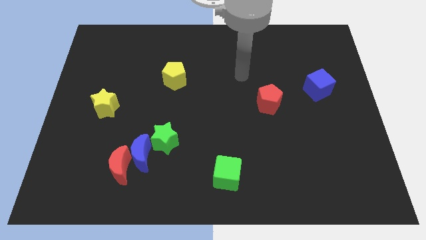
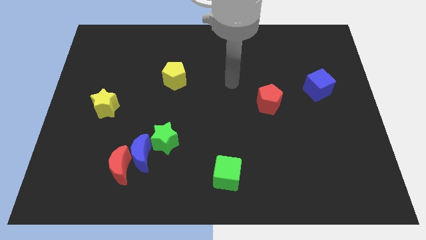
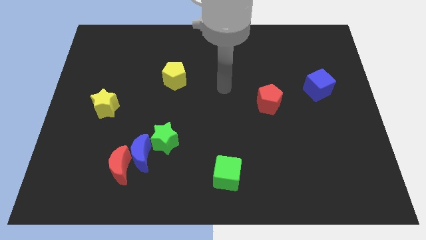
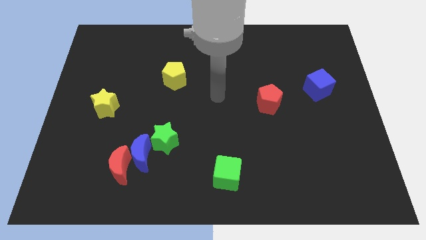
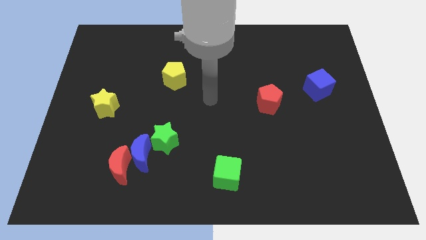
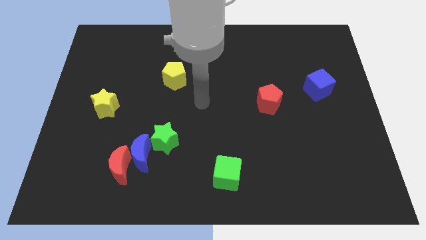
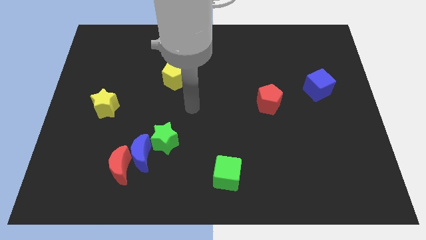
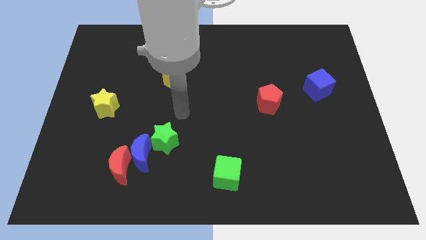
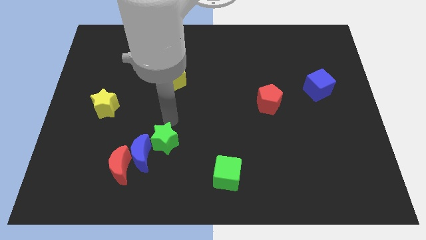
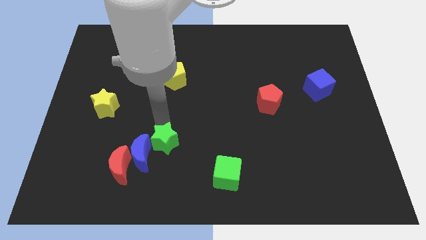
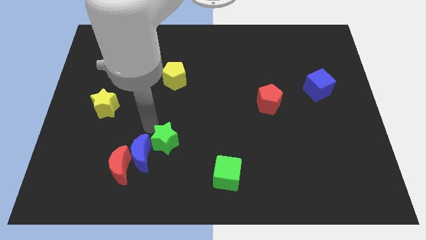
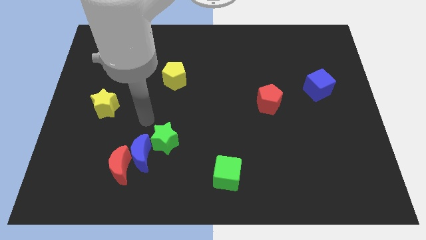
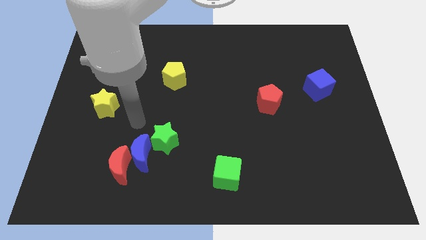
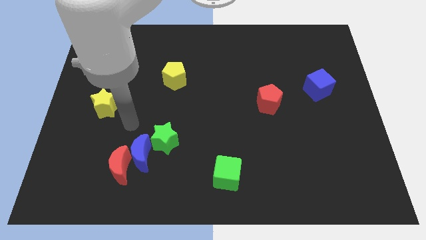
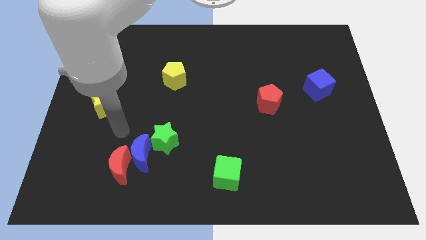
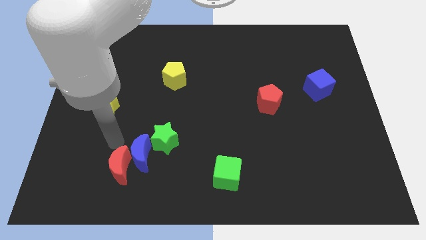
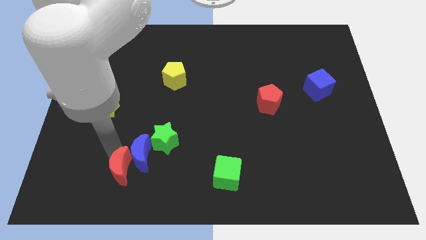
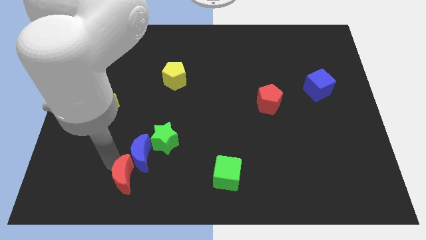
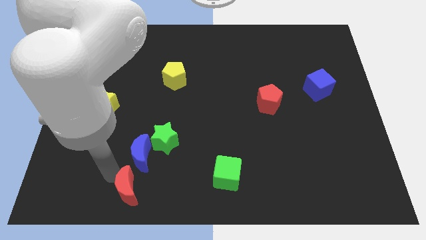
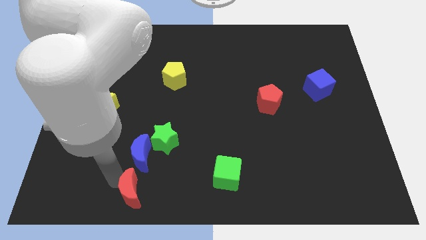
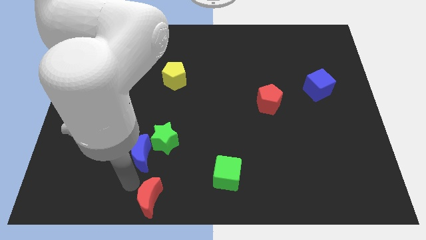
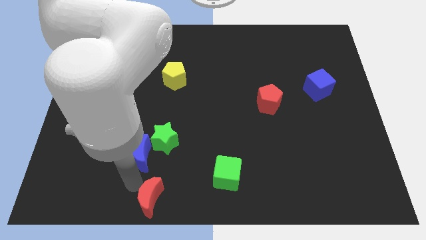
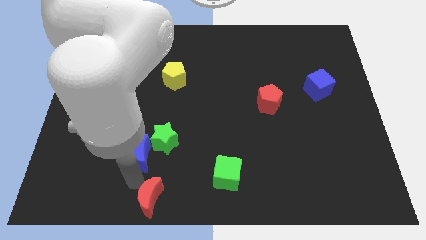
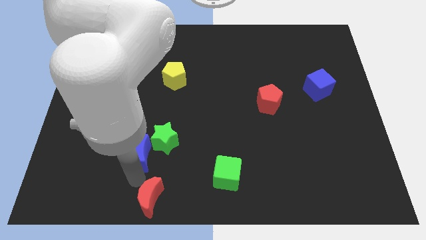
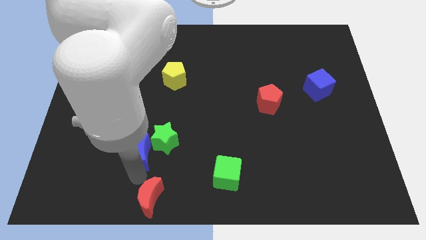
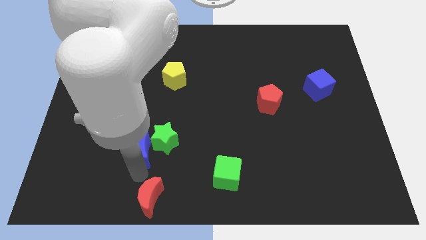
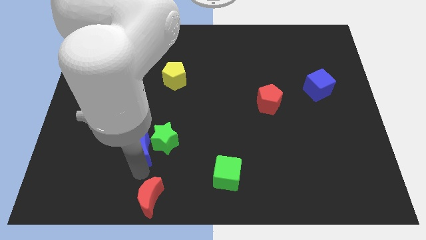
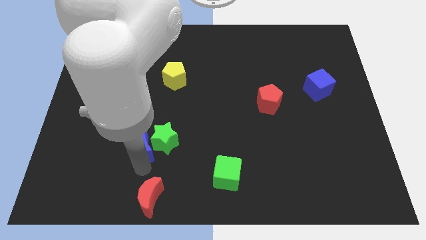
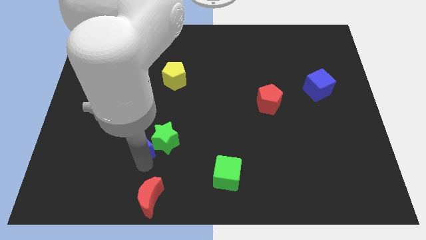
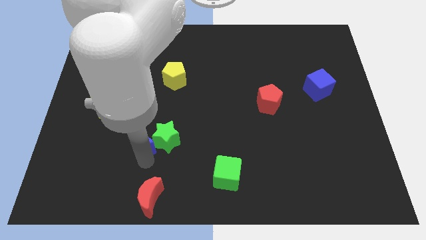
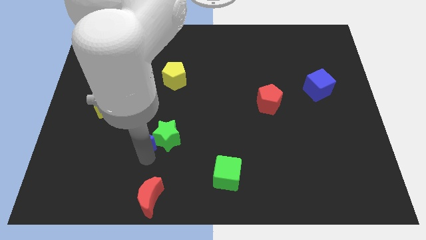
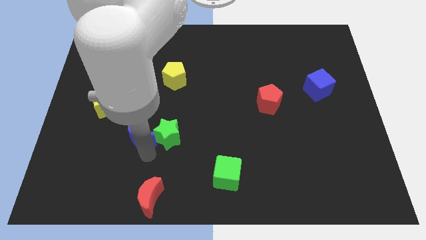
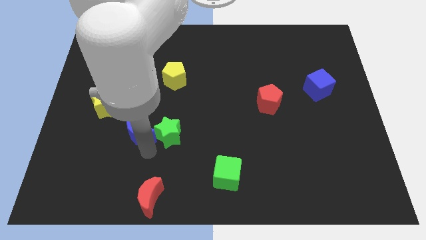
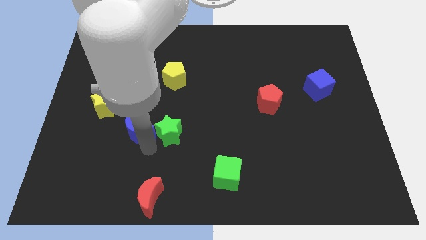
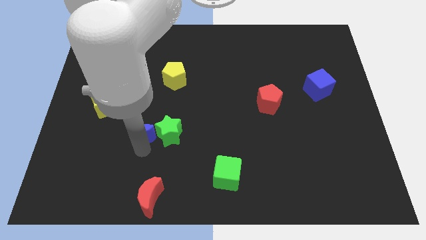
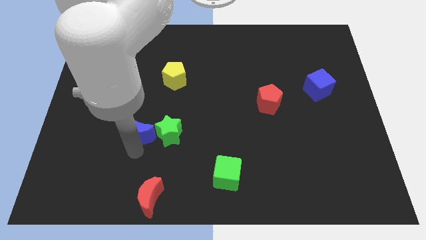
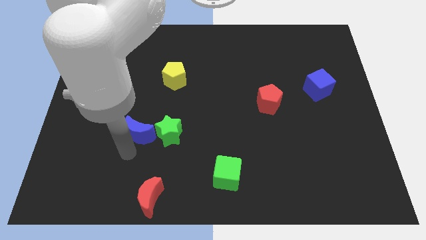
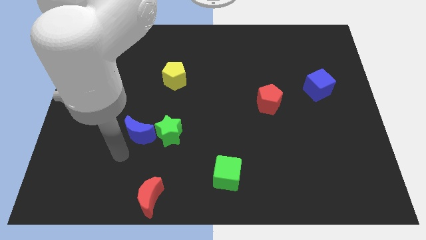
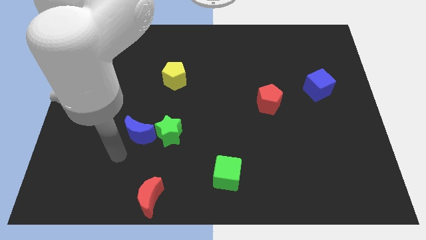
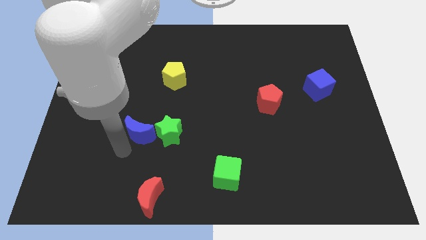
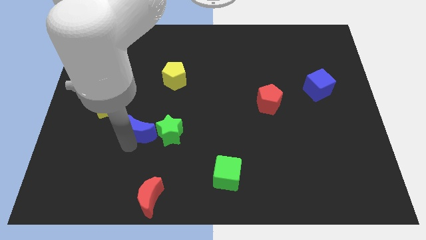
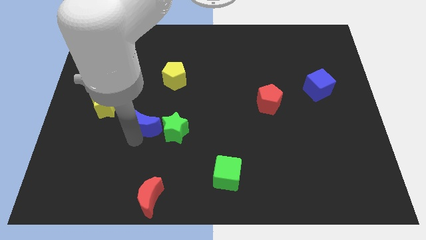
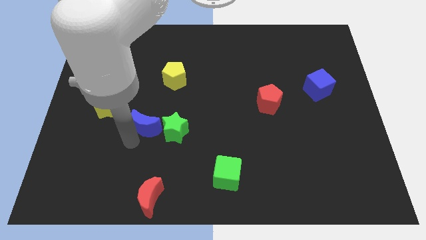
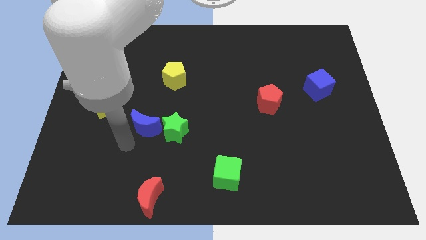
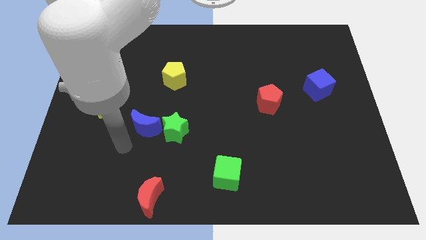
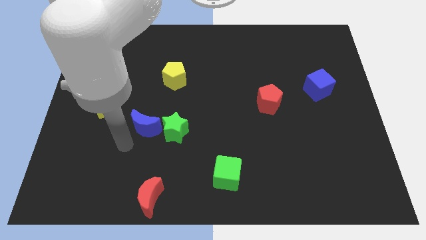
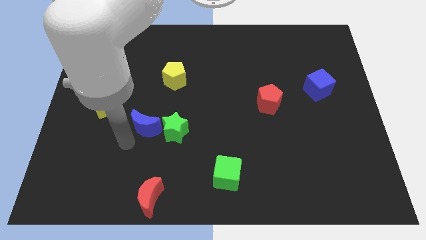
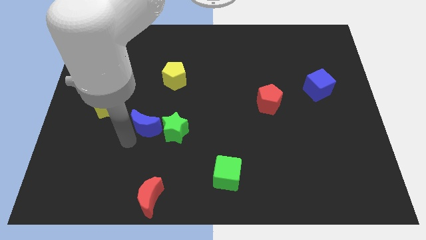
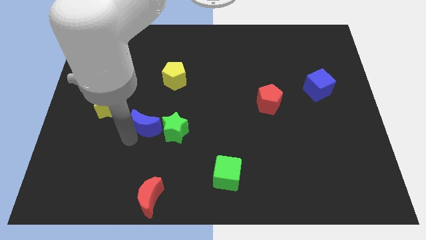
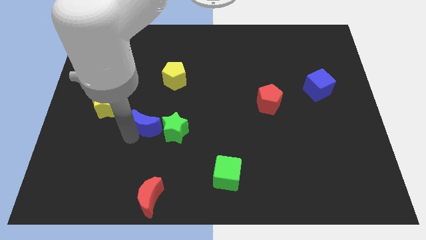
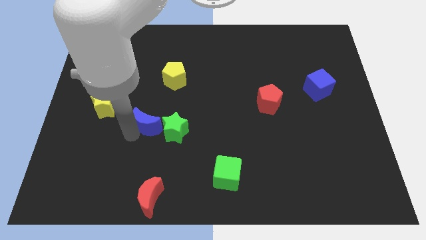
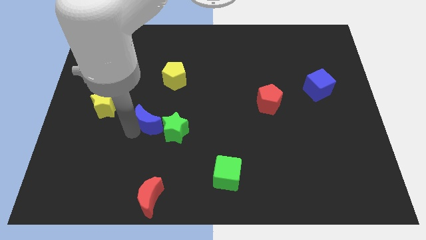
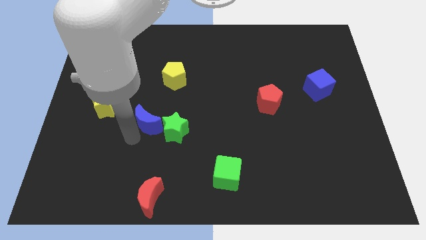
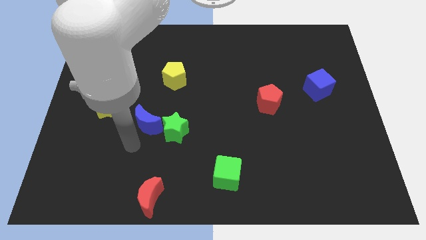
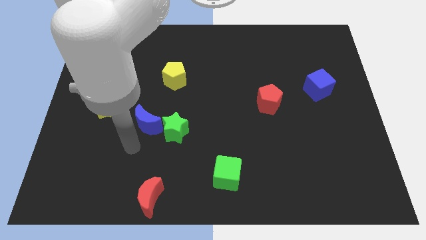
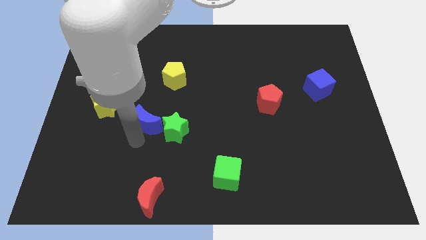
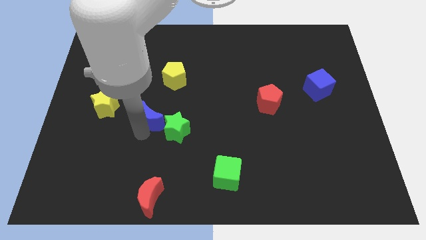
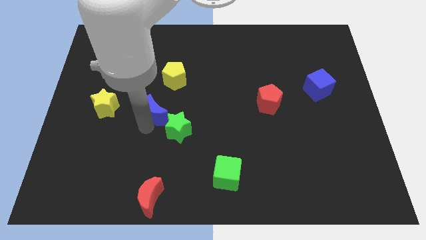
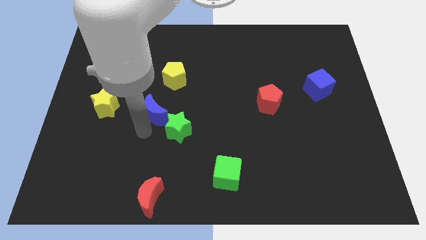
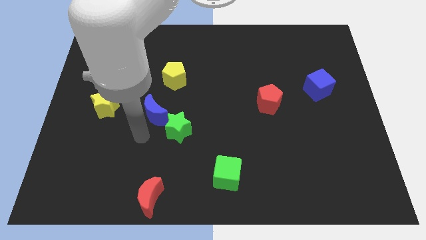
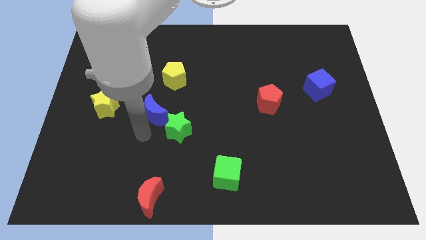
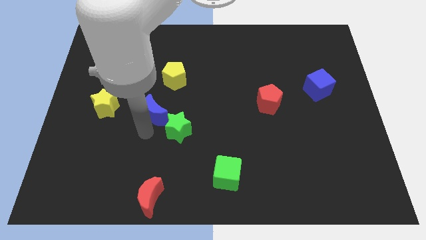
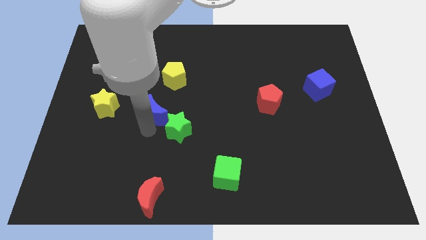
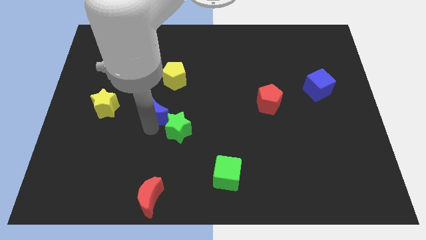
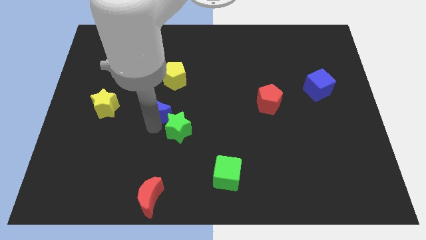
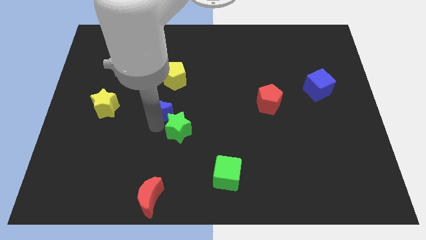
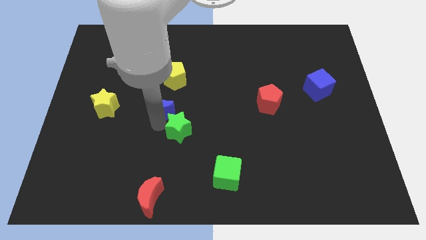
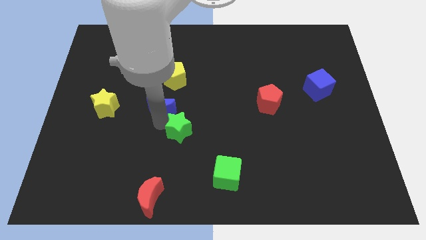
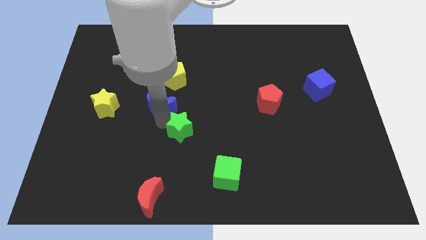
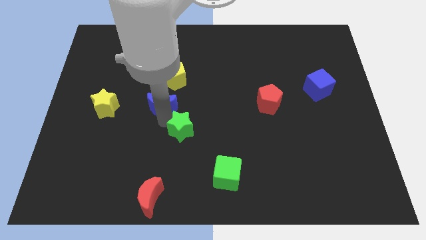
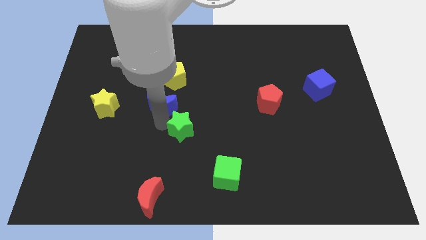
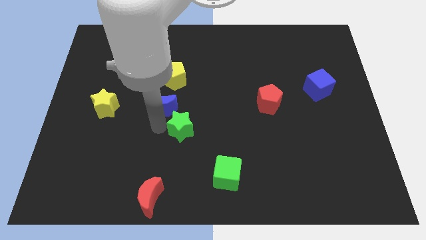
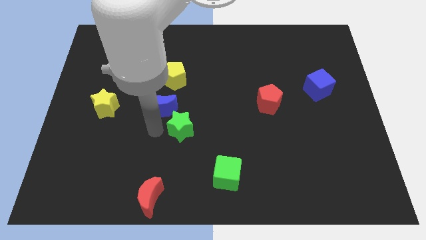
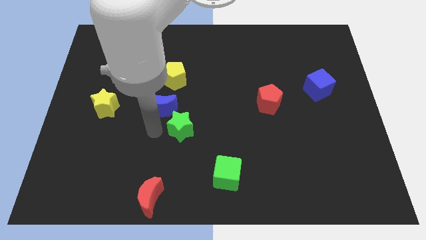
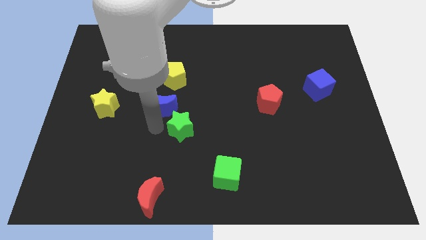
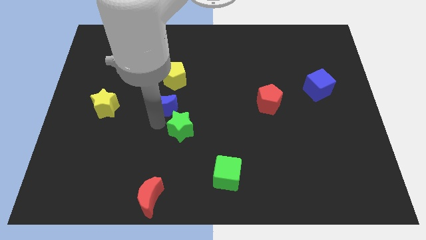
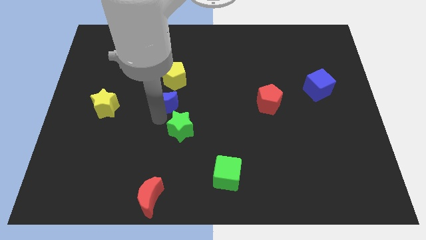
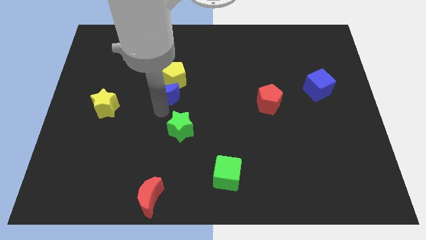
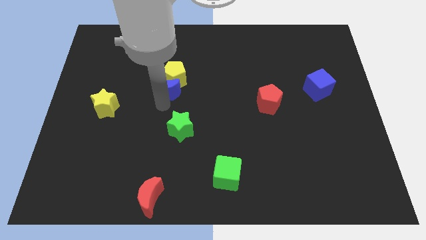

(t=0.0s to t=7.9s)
push the blue moon next to the yellow pentagon
